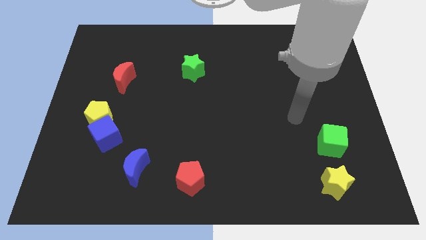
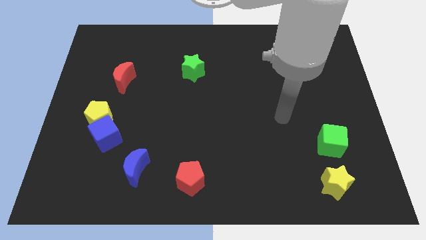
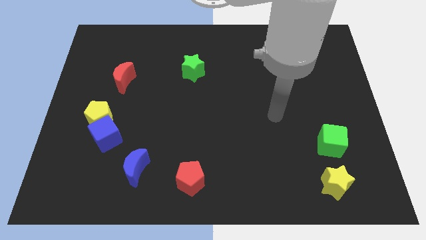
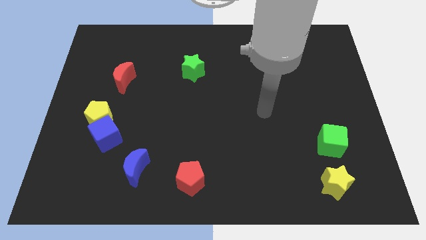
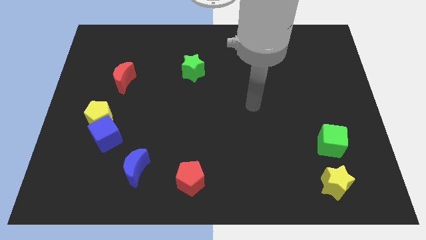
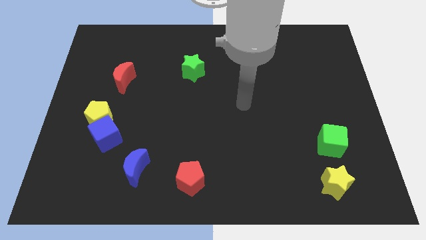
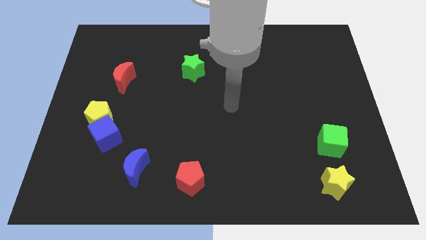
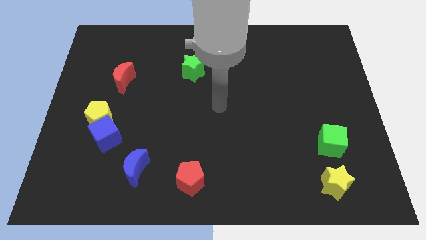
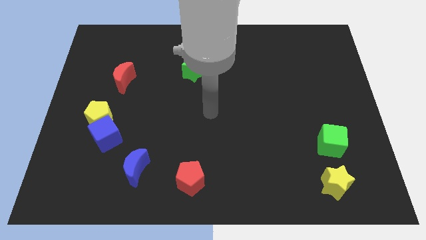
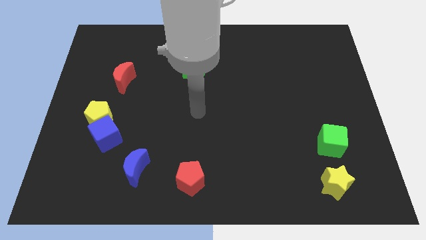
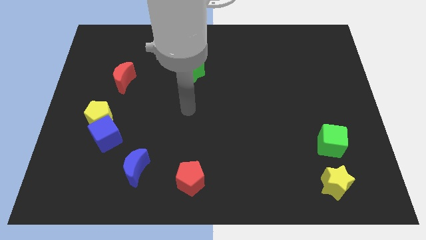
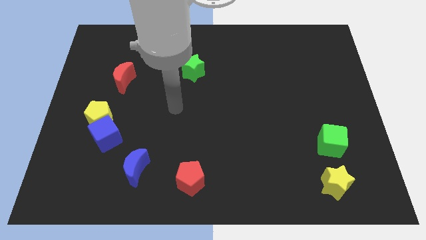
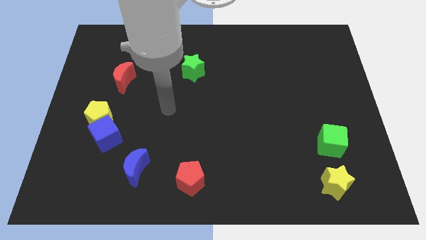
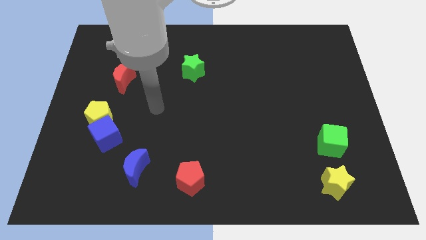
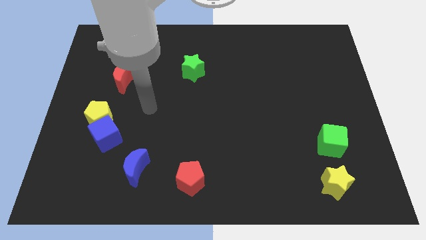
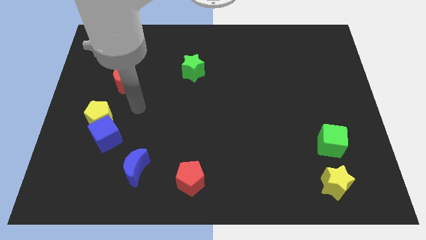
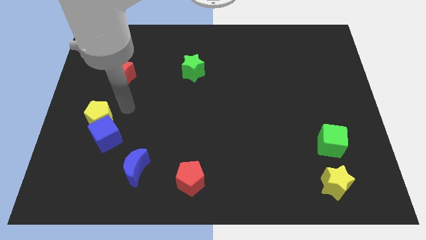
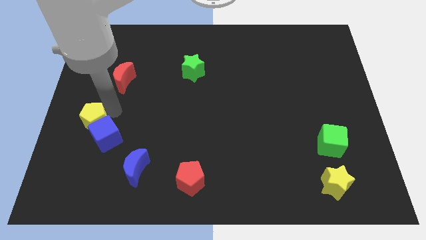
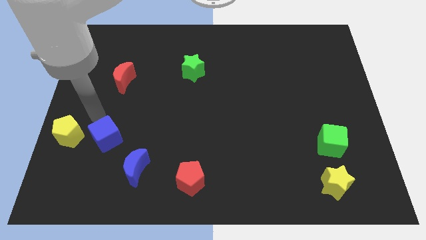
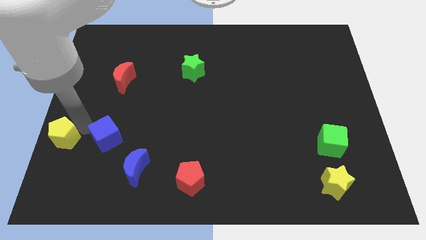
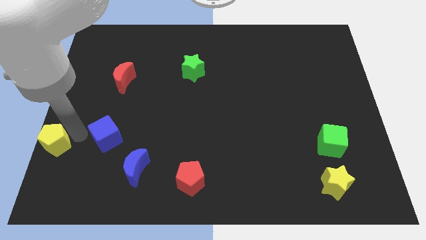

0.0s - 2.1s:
move the blue cube away from the yellow pentagon

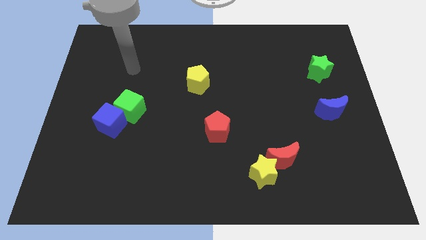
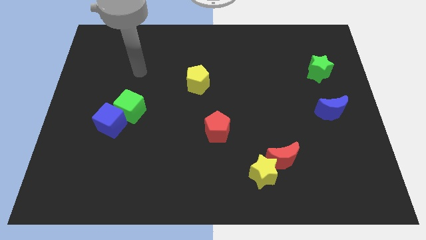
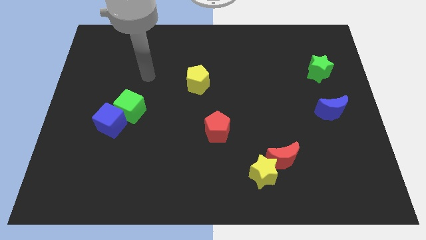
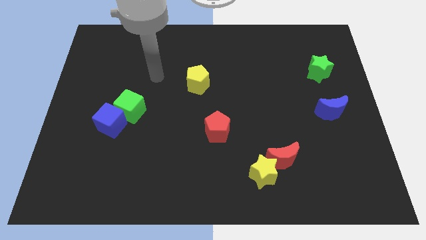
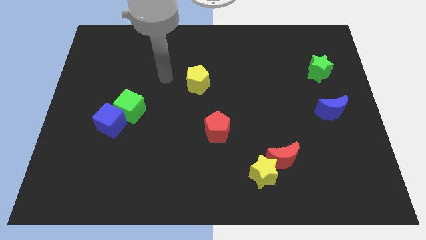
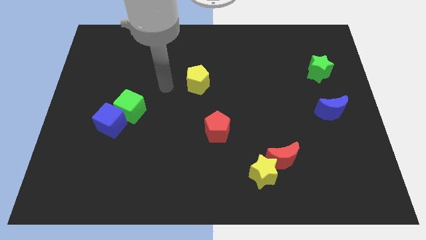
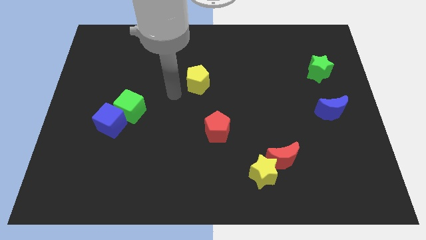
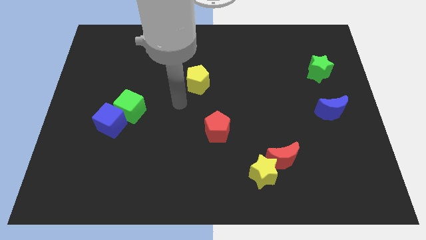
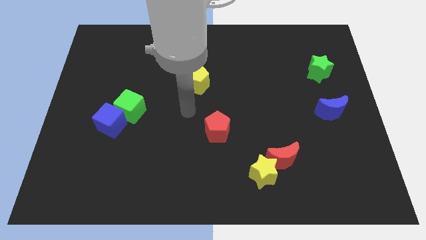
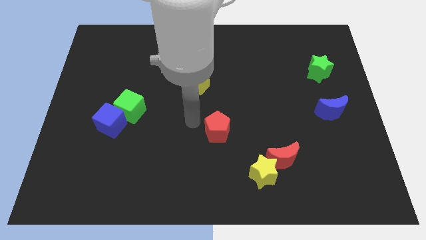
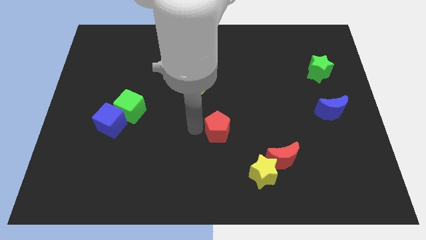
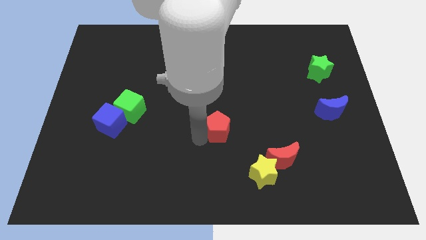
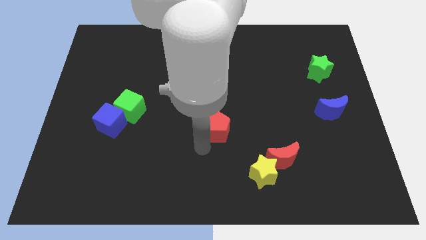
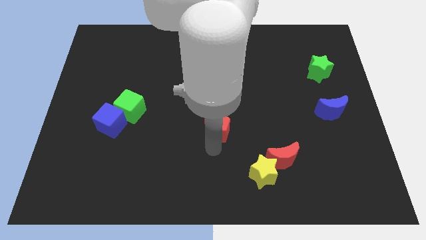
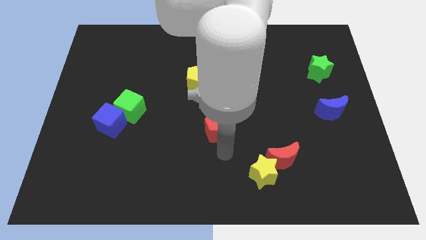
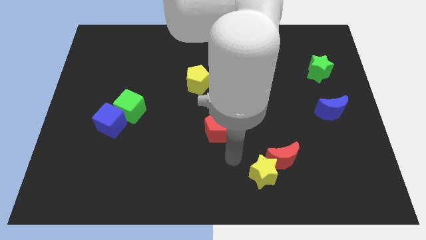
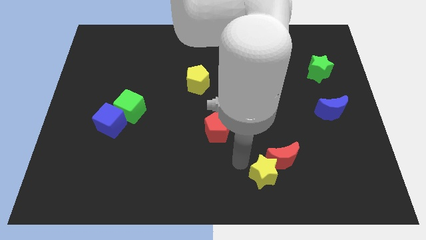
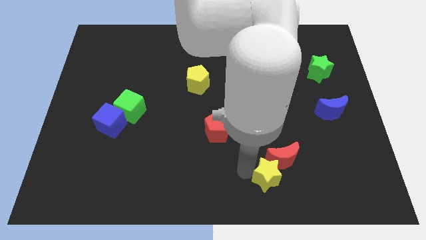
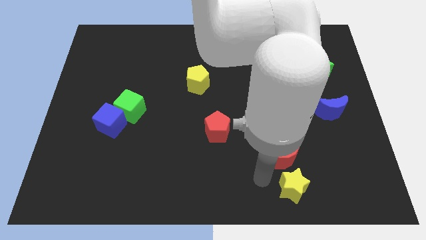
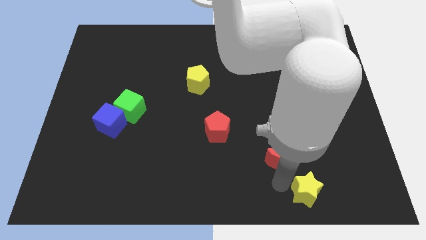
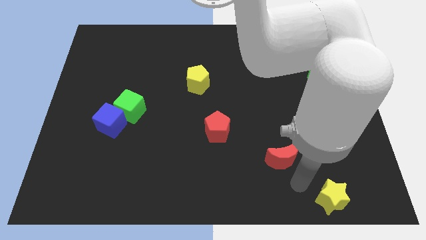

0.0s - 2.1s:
pull the red moon apart from the yellow star

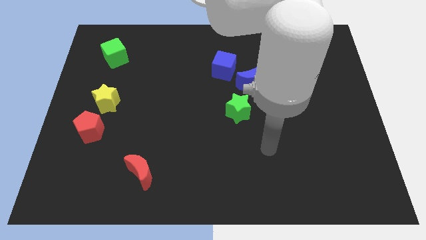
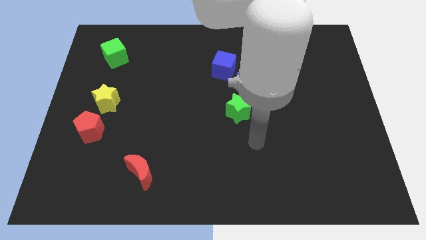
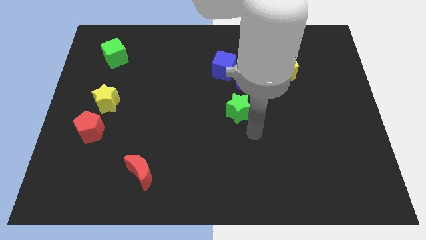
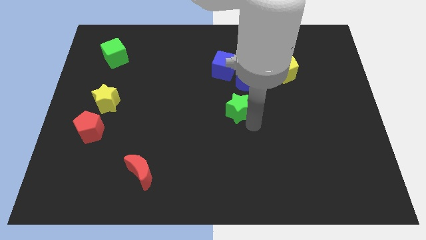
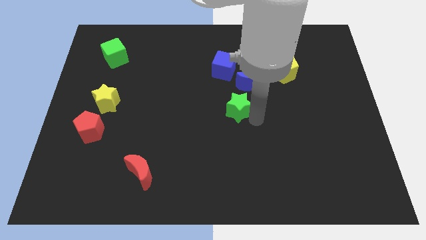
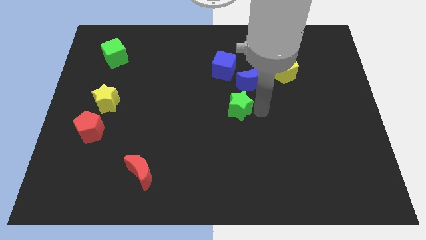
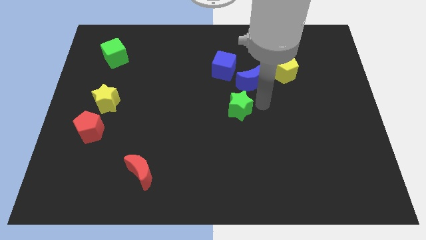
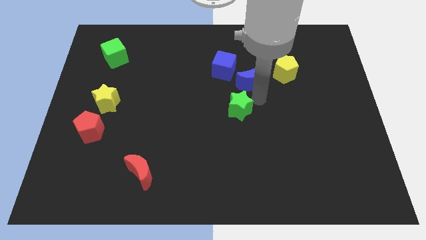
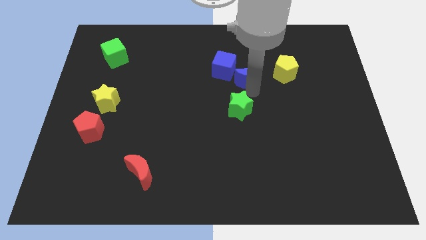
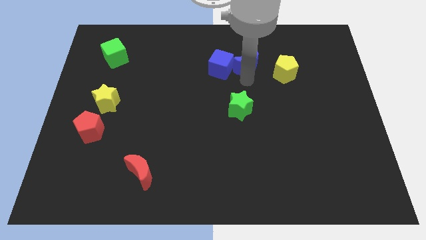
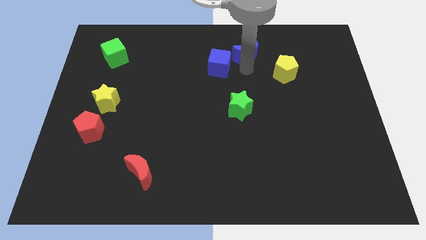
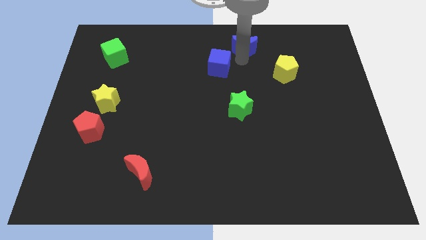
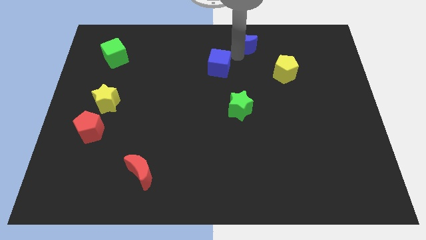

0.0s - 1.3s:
pull the blue cube apart from the blue moon

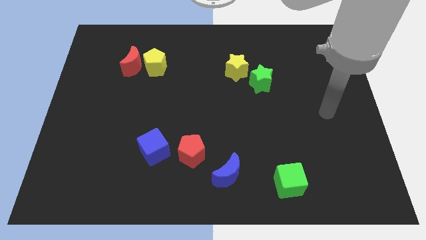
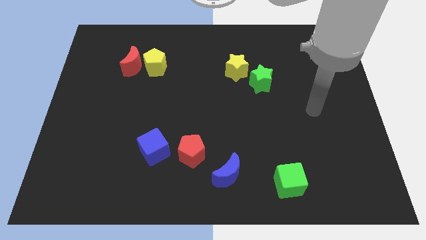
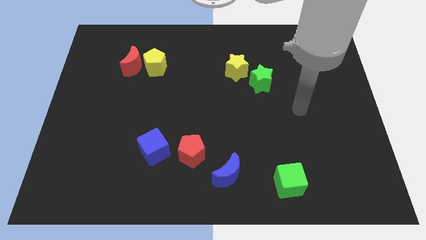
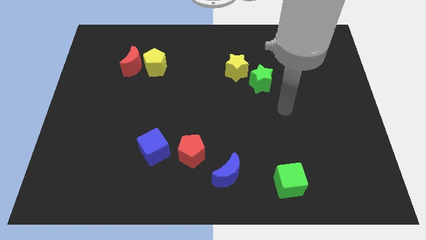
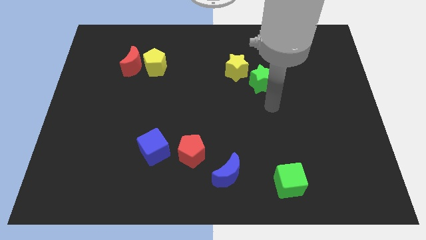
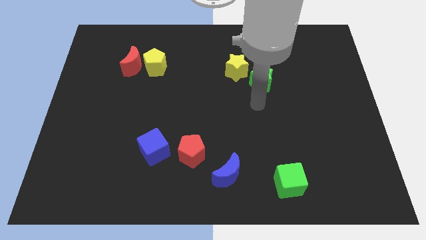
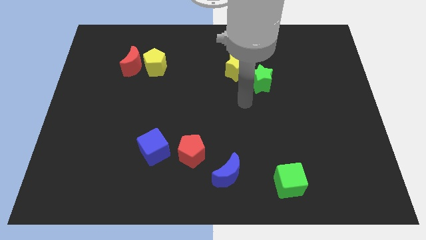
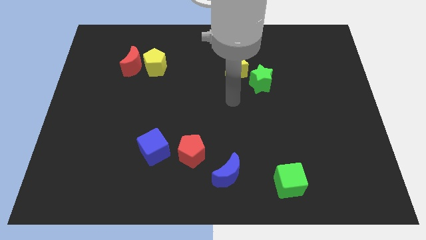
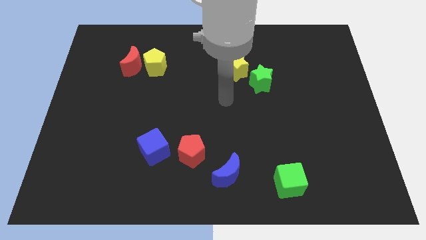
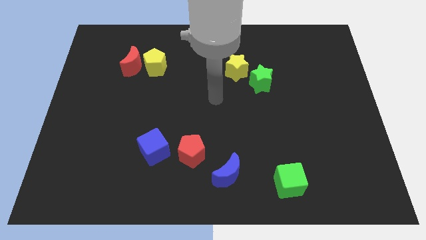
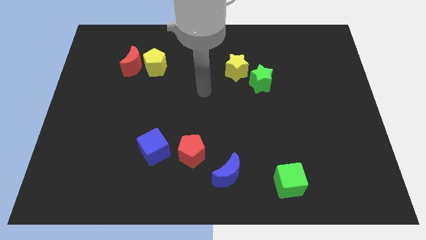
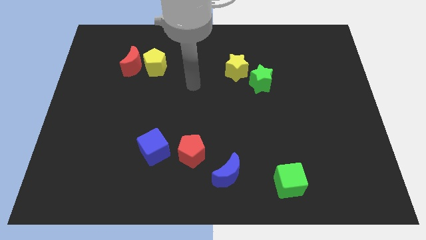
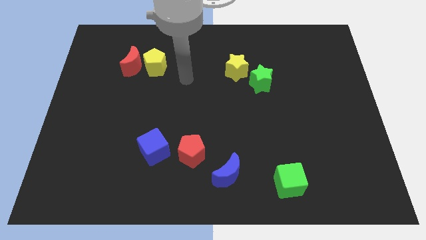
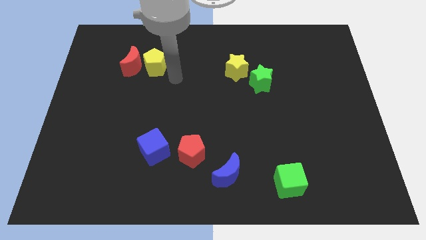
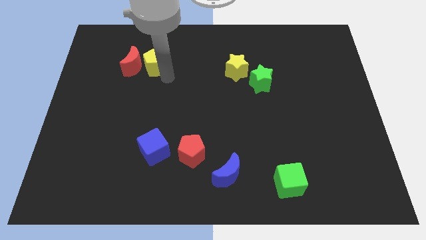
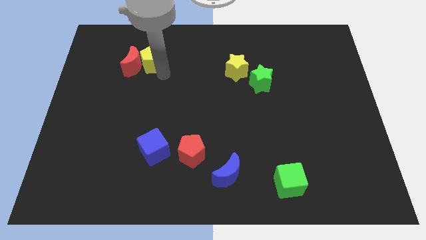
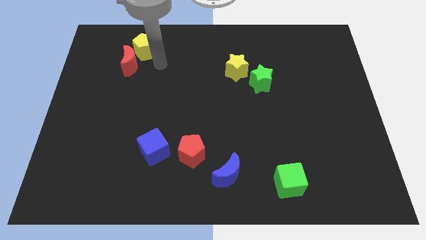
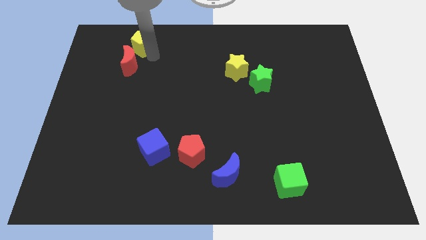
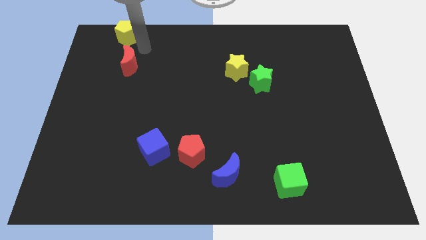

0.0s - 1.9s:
move the red moon away from the yellow pentagon

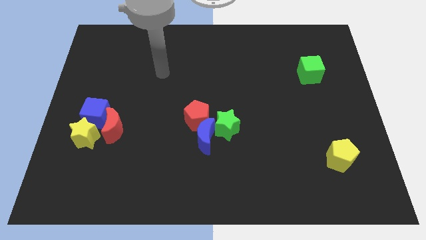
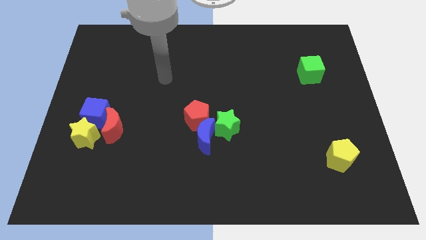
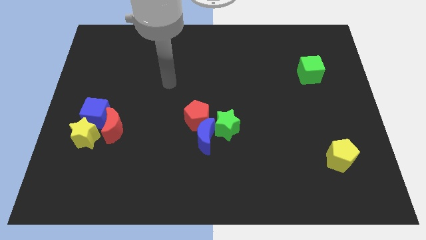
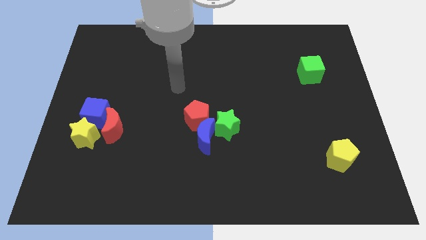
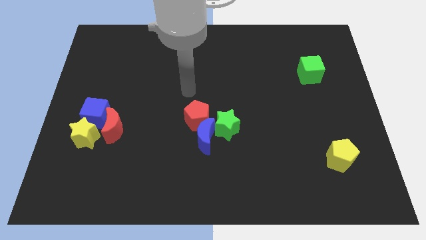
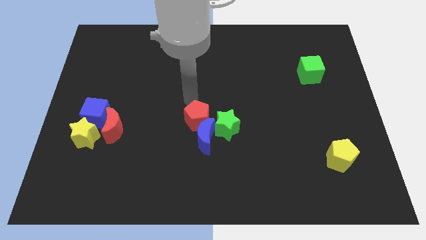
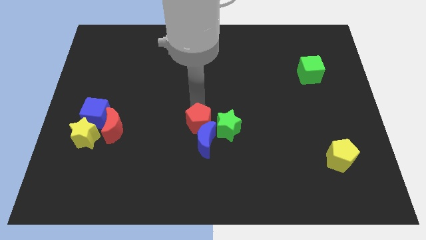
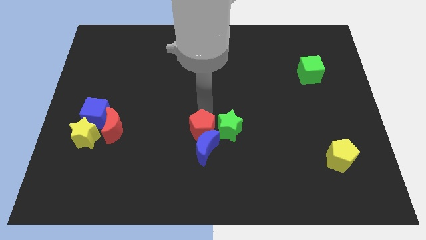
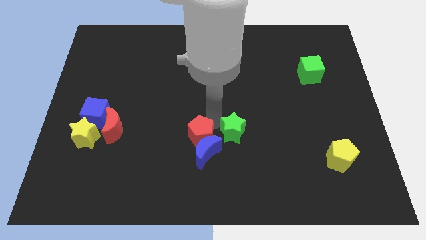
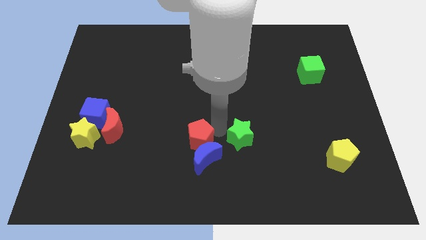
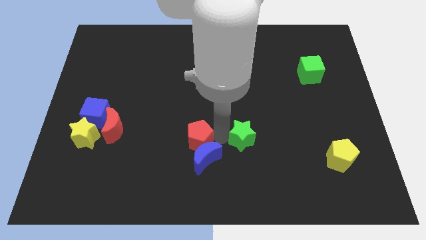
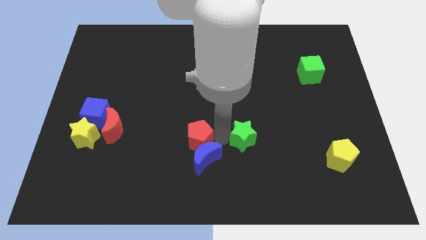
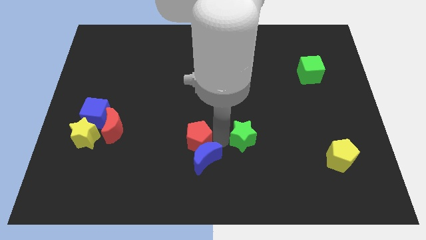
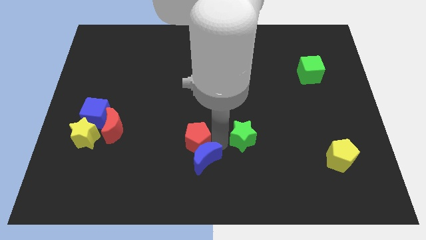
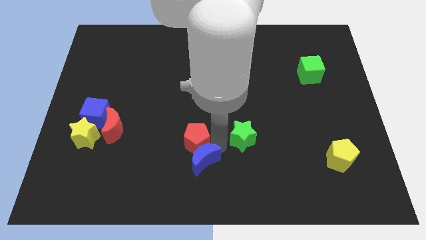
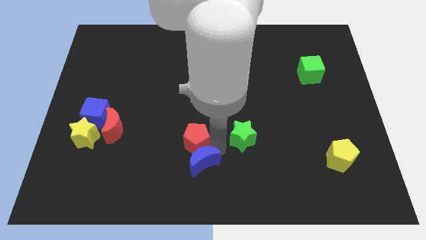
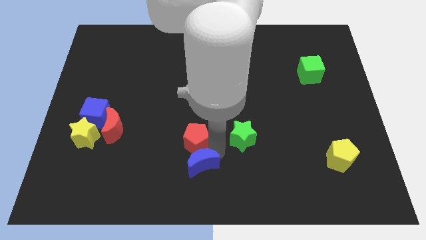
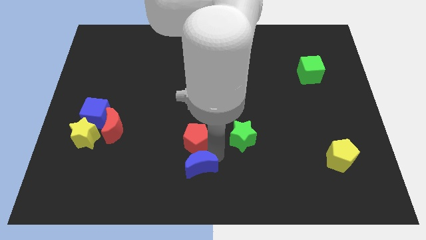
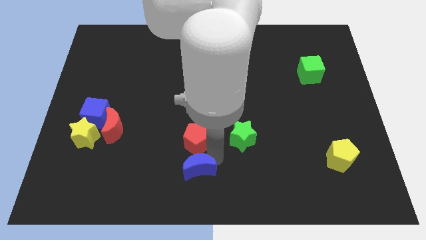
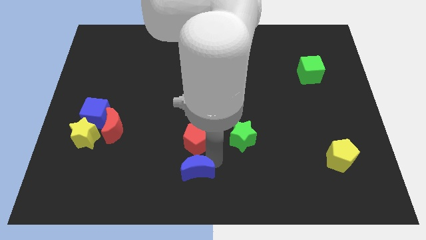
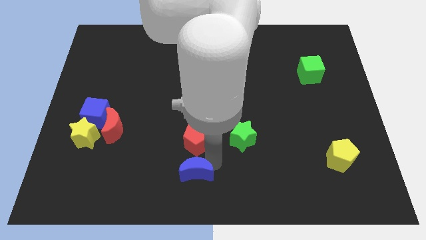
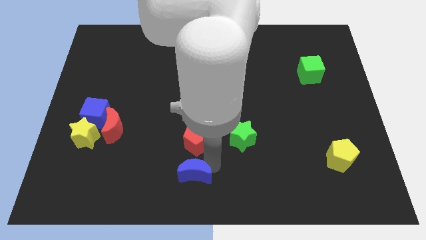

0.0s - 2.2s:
pull the blue moon apart from the red pentagon and green star
